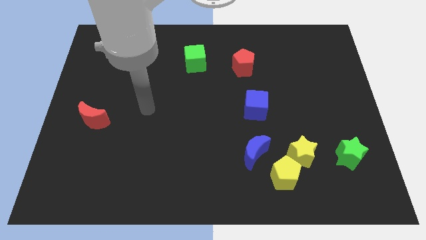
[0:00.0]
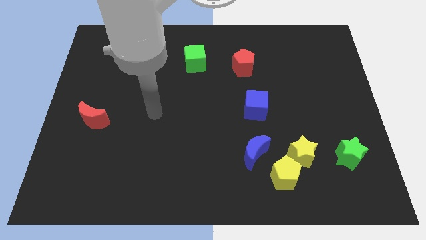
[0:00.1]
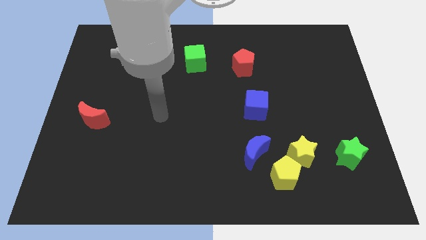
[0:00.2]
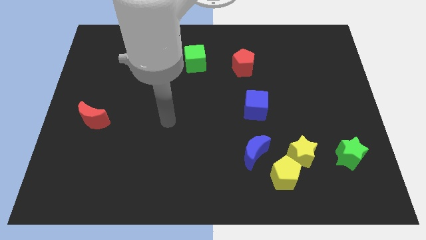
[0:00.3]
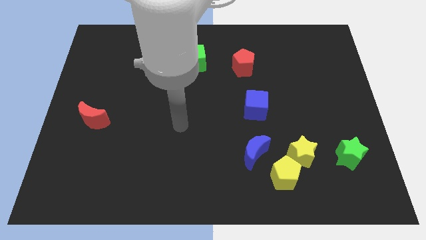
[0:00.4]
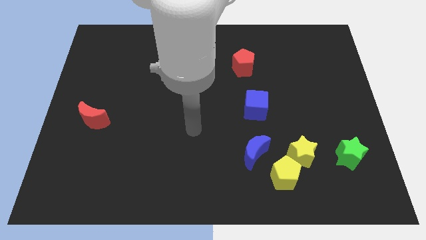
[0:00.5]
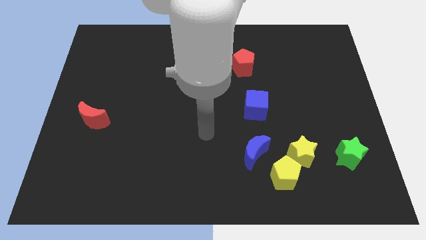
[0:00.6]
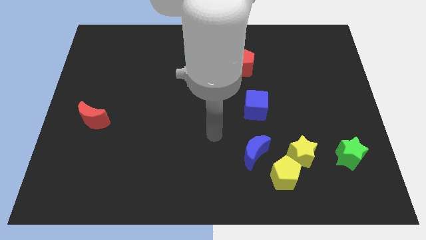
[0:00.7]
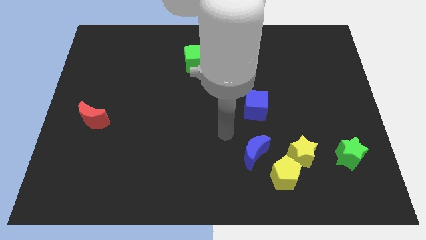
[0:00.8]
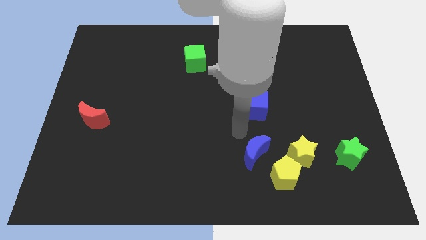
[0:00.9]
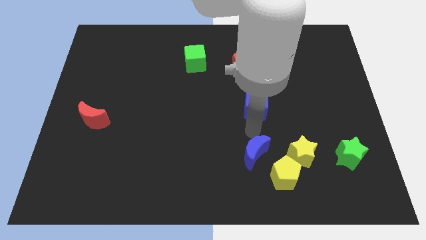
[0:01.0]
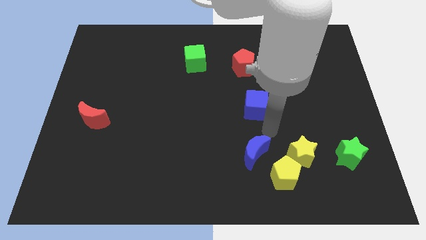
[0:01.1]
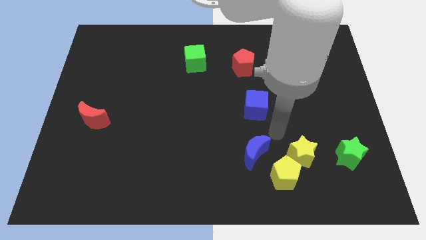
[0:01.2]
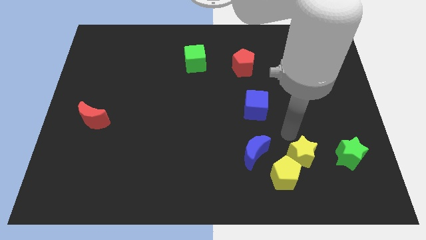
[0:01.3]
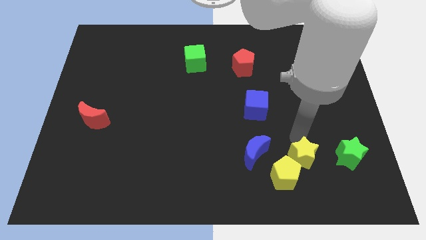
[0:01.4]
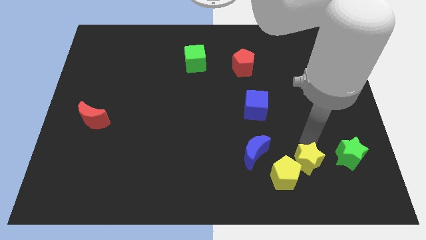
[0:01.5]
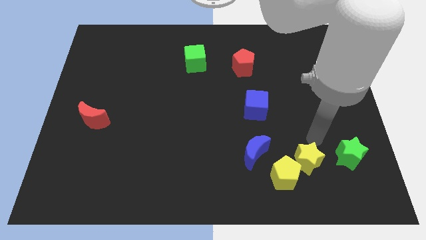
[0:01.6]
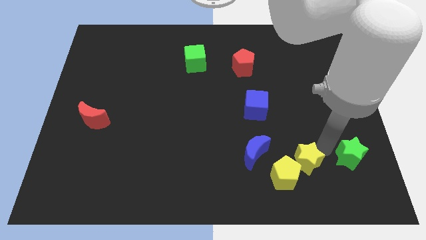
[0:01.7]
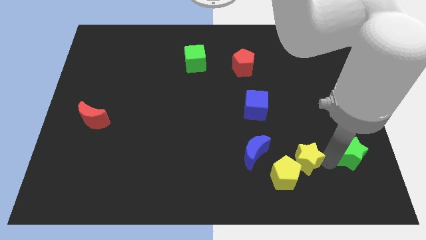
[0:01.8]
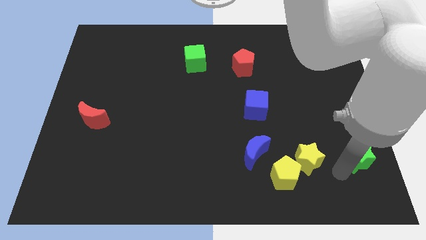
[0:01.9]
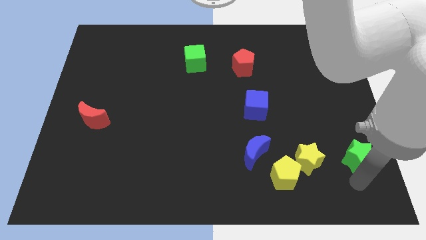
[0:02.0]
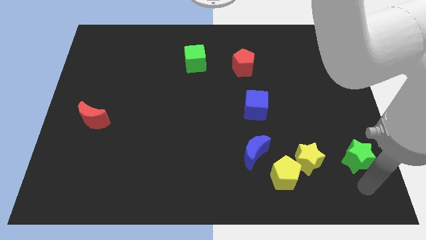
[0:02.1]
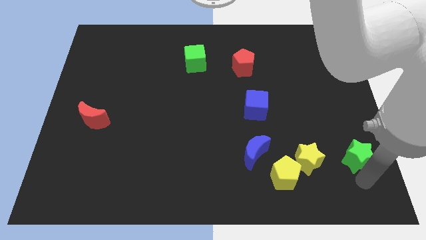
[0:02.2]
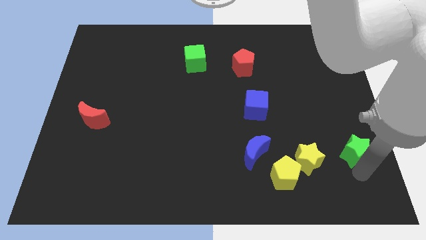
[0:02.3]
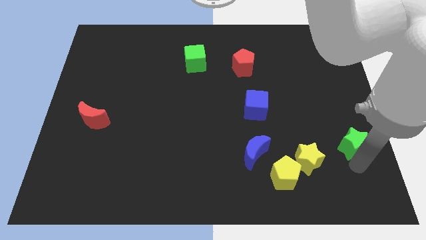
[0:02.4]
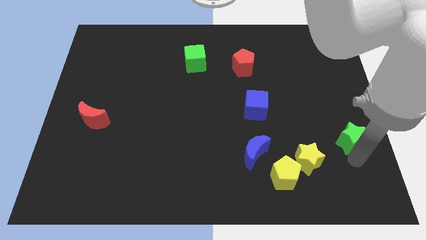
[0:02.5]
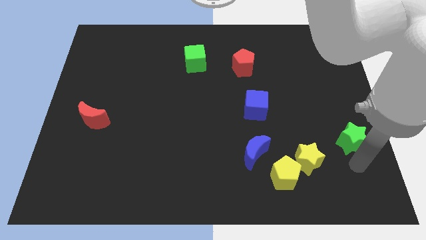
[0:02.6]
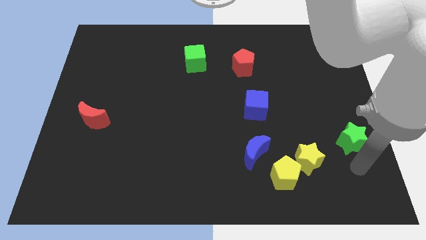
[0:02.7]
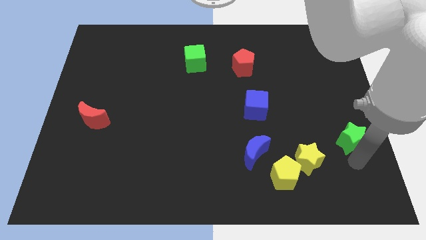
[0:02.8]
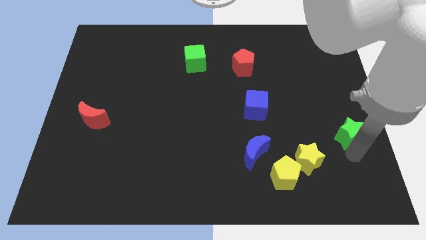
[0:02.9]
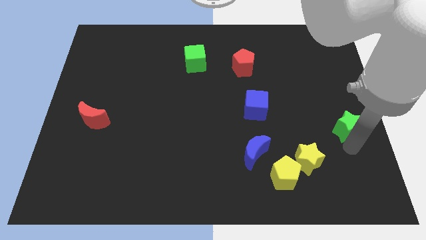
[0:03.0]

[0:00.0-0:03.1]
push the green star slightly upwards

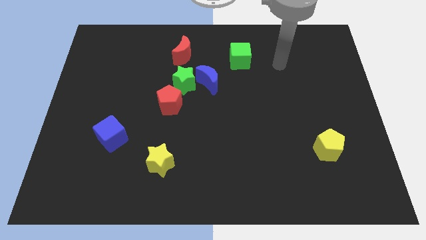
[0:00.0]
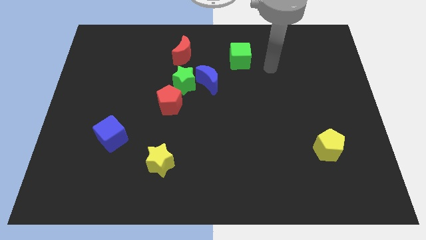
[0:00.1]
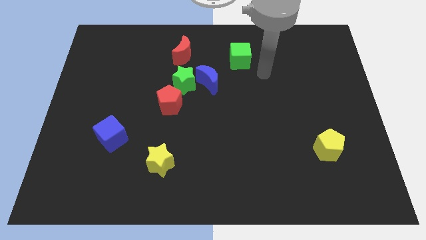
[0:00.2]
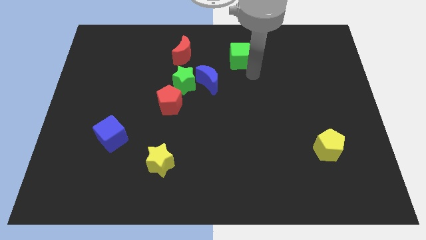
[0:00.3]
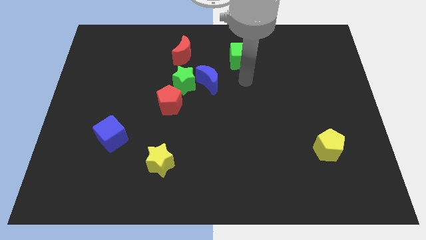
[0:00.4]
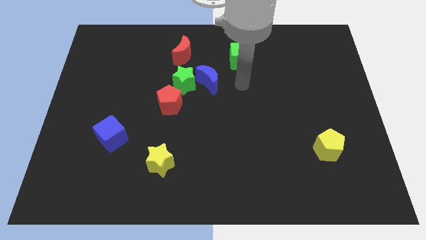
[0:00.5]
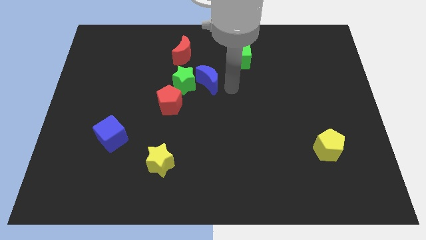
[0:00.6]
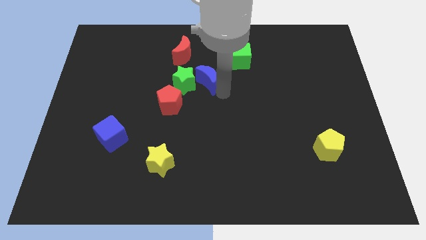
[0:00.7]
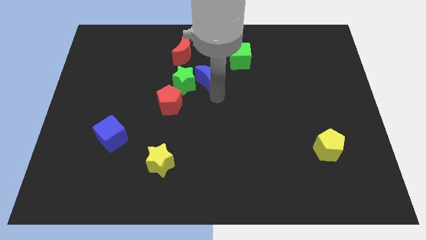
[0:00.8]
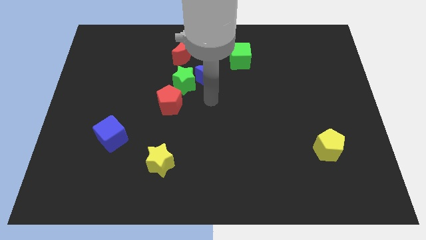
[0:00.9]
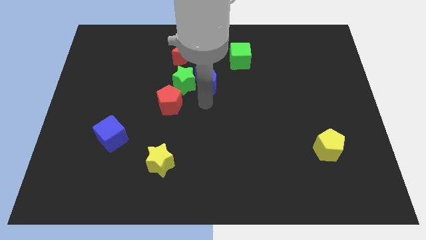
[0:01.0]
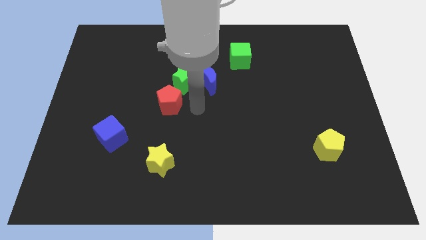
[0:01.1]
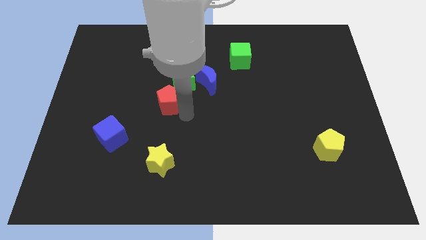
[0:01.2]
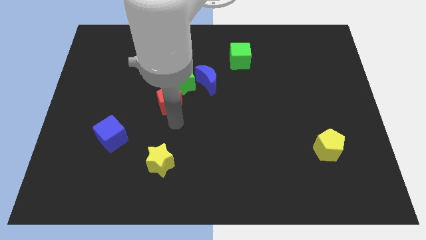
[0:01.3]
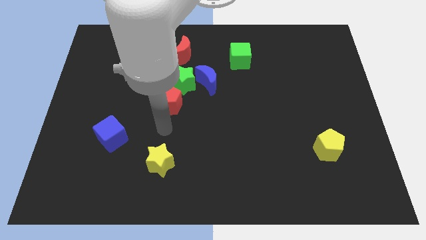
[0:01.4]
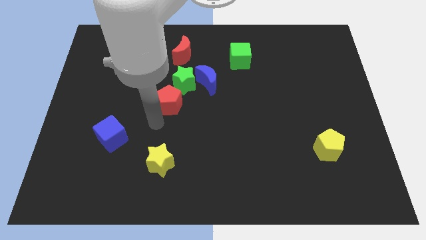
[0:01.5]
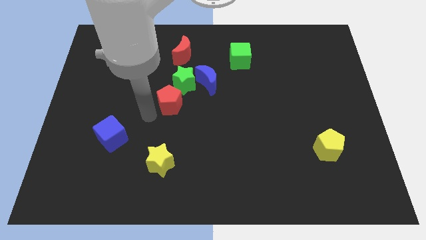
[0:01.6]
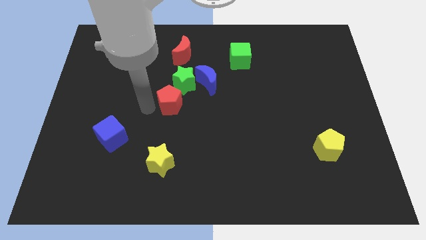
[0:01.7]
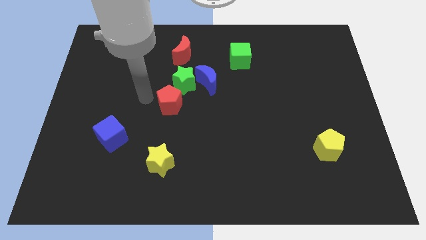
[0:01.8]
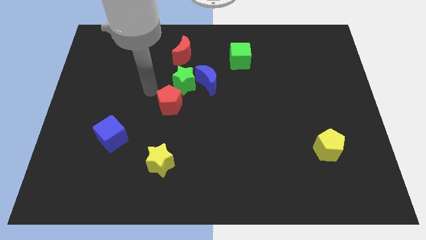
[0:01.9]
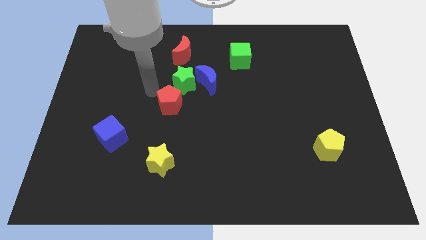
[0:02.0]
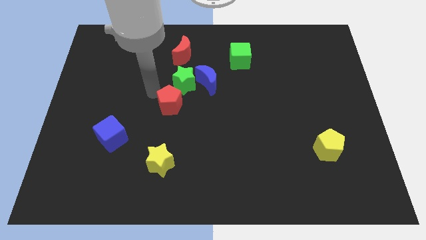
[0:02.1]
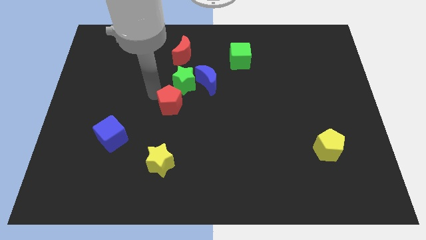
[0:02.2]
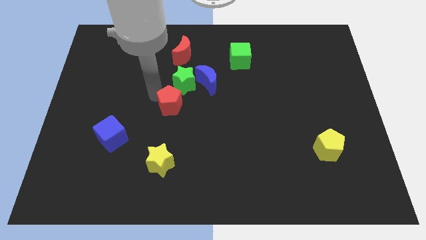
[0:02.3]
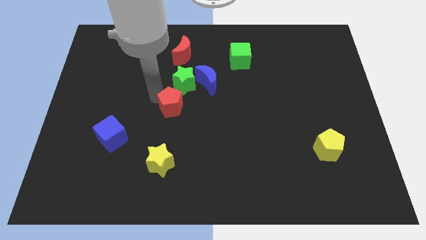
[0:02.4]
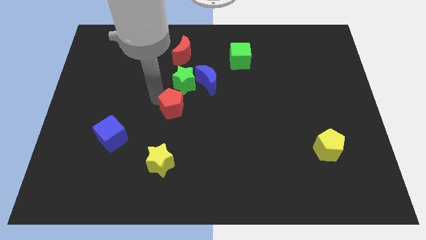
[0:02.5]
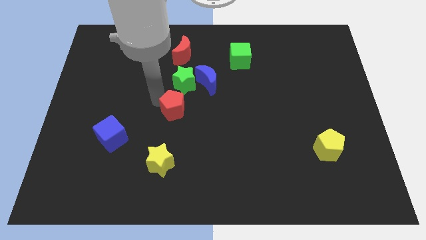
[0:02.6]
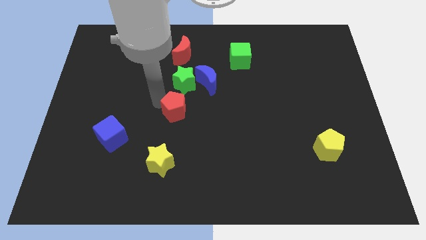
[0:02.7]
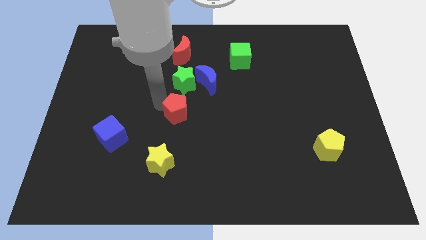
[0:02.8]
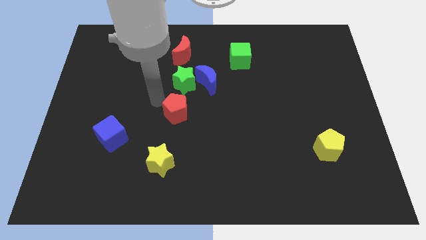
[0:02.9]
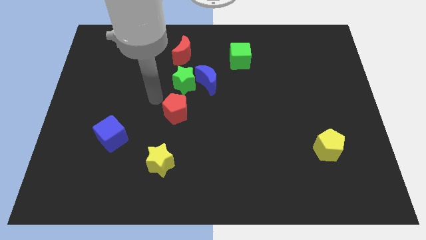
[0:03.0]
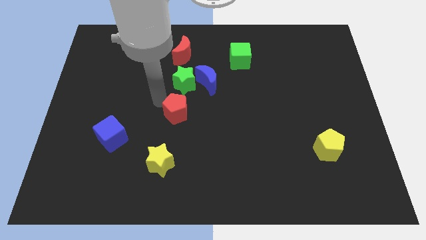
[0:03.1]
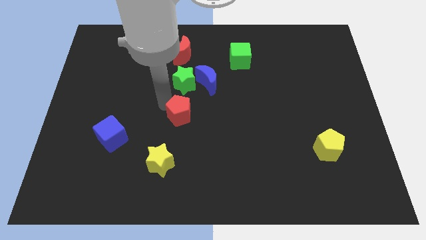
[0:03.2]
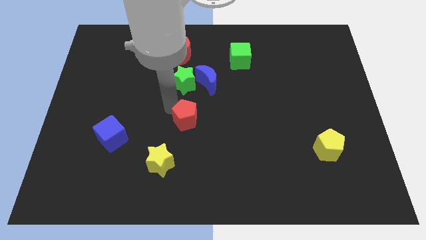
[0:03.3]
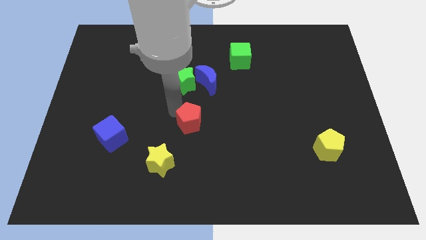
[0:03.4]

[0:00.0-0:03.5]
slightly slide the red pentagon downwards and then right

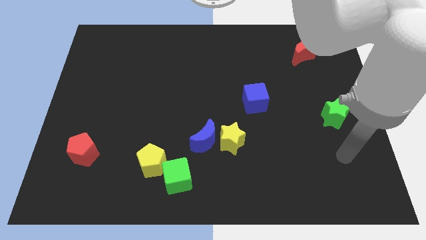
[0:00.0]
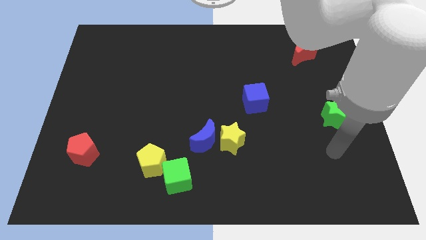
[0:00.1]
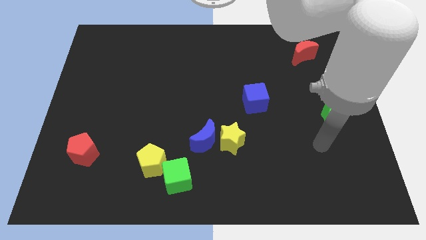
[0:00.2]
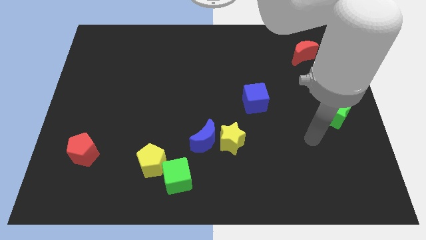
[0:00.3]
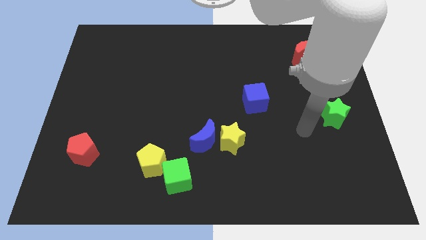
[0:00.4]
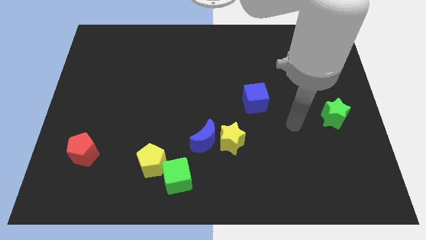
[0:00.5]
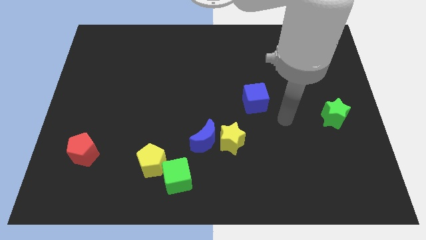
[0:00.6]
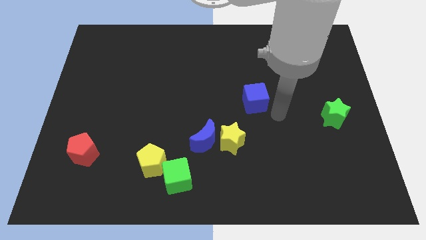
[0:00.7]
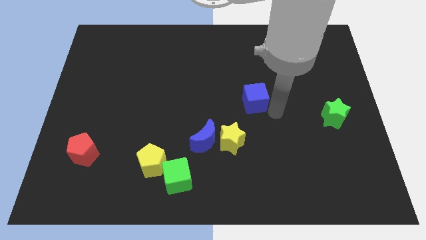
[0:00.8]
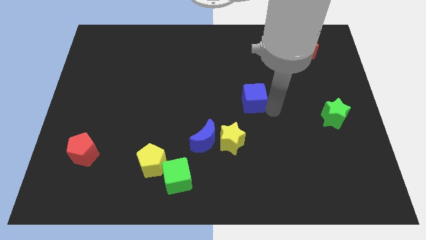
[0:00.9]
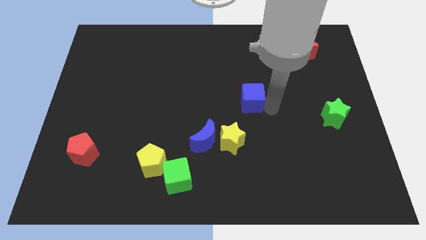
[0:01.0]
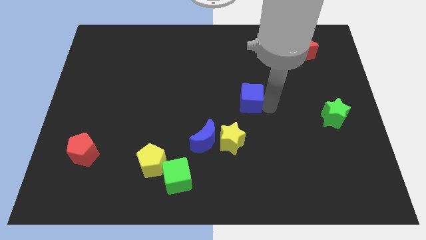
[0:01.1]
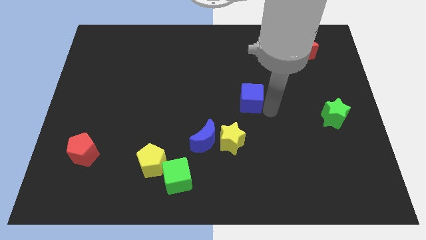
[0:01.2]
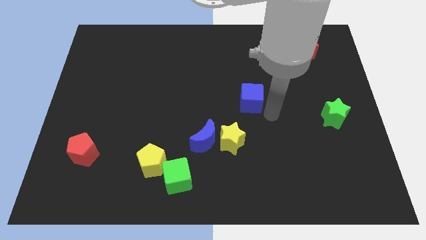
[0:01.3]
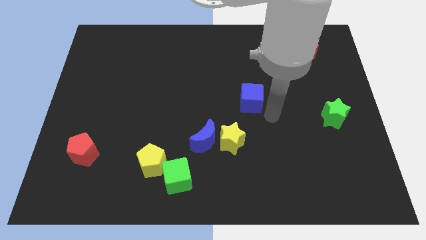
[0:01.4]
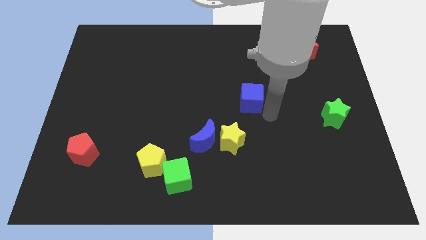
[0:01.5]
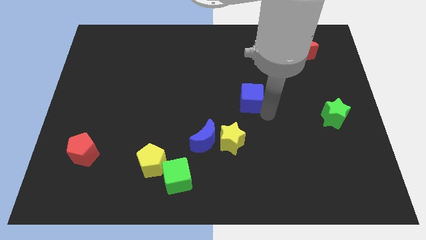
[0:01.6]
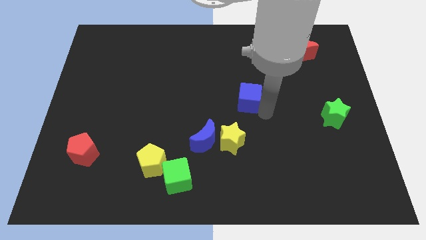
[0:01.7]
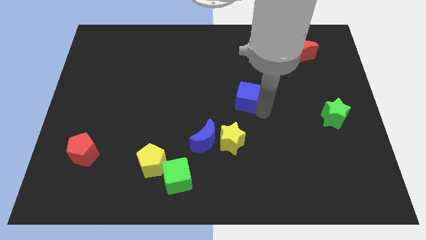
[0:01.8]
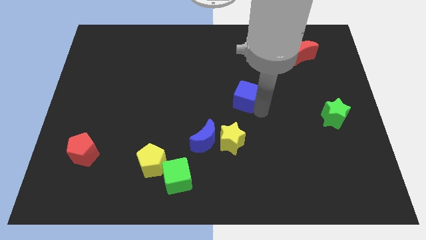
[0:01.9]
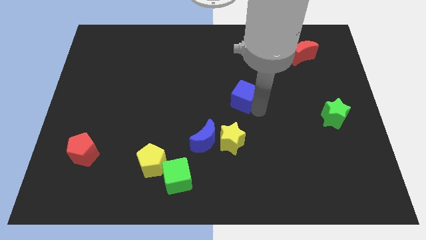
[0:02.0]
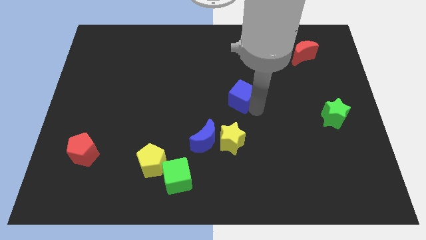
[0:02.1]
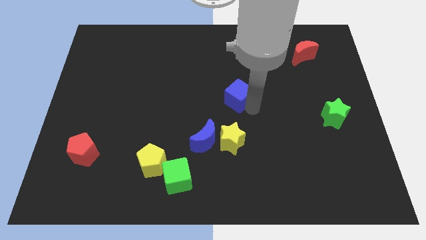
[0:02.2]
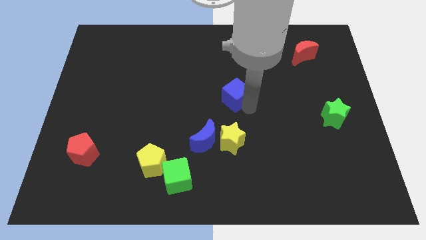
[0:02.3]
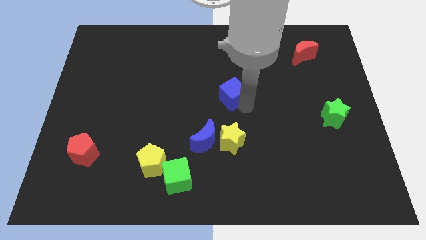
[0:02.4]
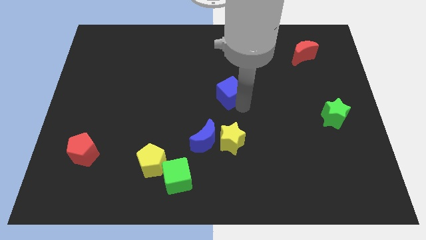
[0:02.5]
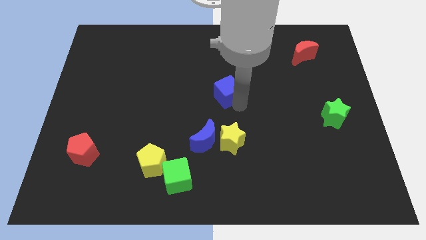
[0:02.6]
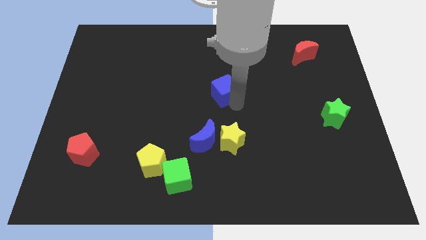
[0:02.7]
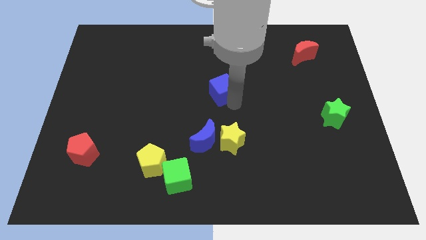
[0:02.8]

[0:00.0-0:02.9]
slightly push the blue cube up and to the left diagonally
